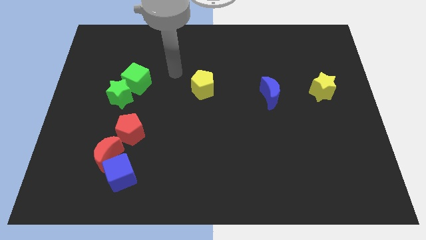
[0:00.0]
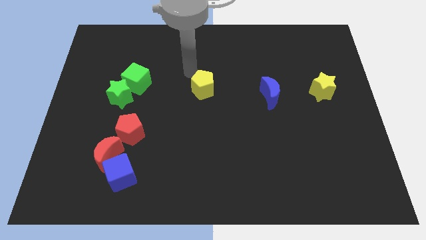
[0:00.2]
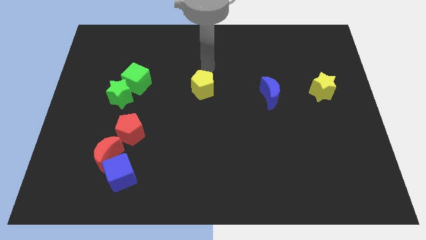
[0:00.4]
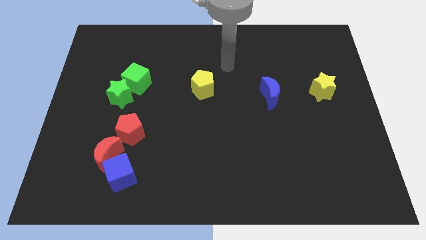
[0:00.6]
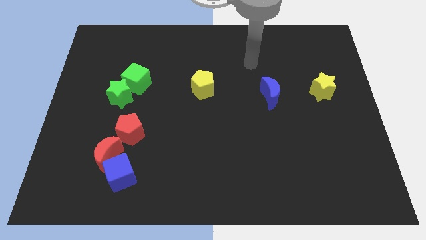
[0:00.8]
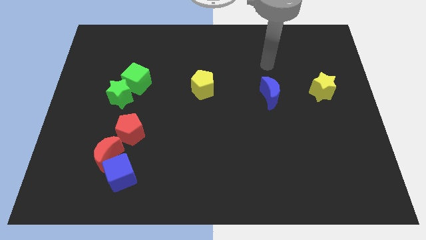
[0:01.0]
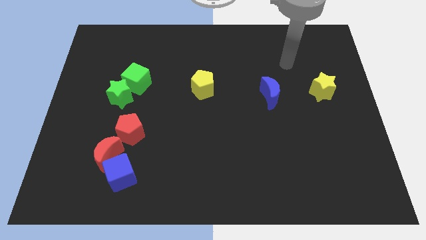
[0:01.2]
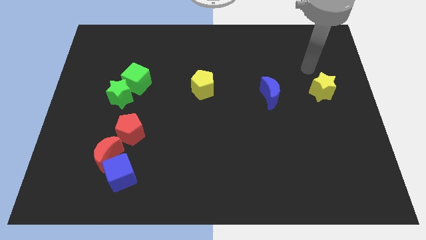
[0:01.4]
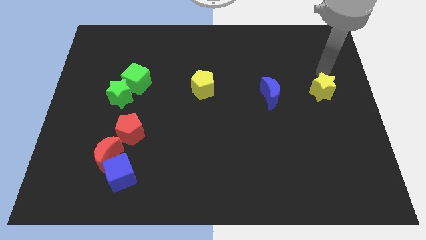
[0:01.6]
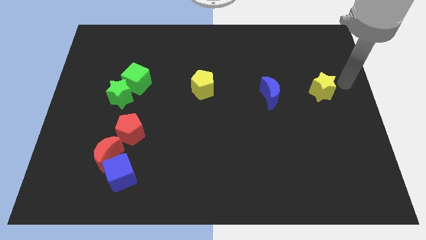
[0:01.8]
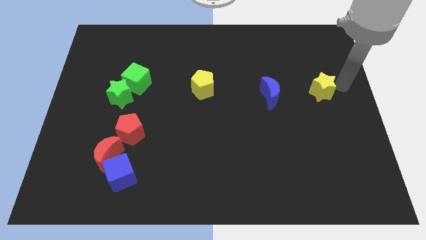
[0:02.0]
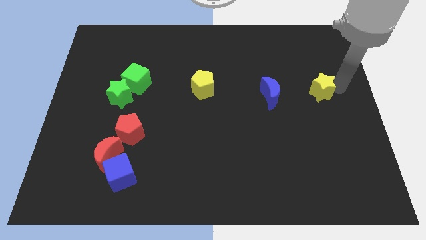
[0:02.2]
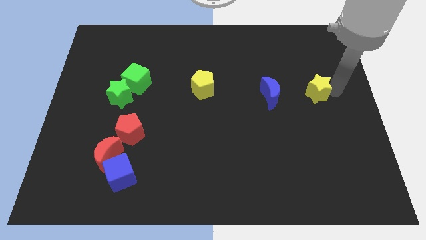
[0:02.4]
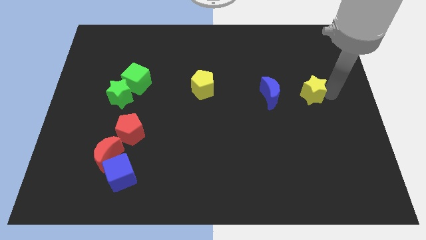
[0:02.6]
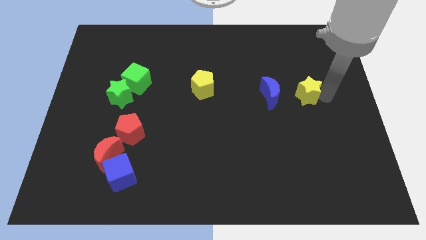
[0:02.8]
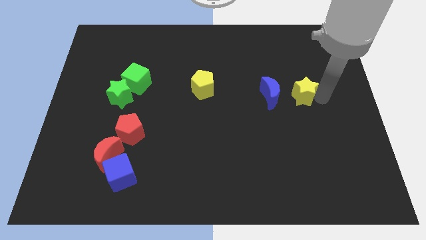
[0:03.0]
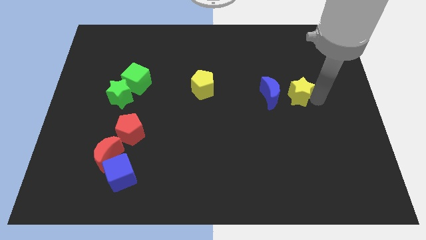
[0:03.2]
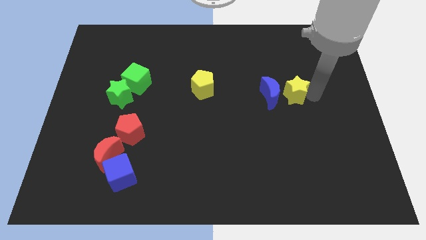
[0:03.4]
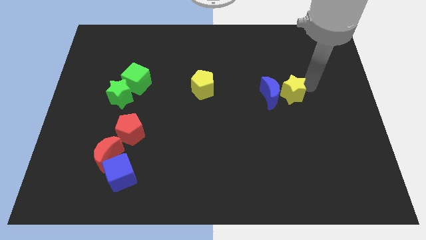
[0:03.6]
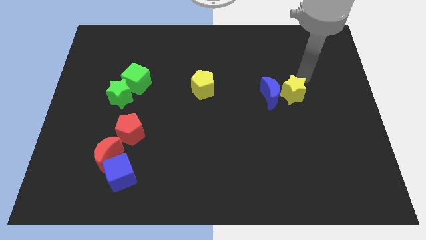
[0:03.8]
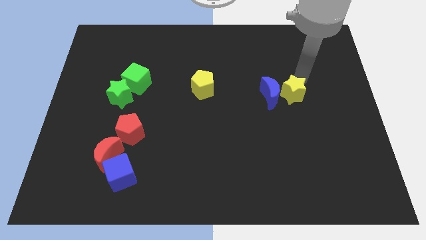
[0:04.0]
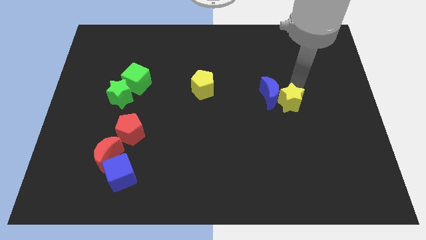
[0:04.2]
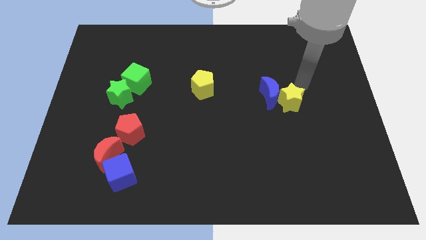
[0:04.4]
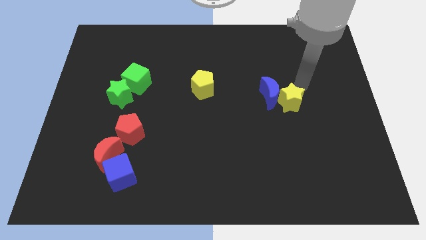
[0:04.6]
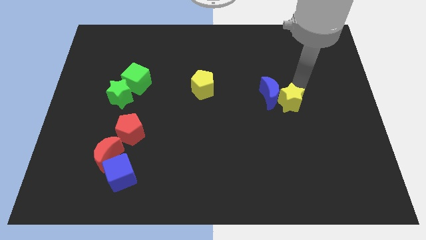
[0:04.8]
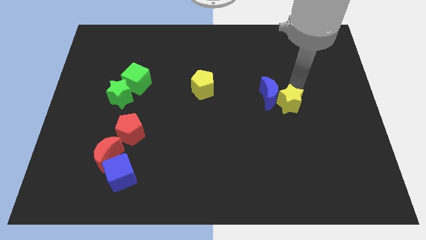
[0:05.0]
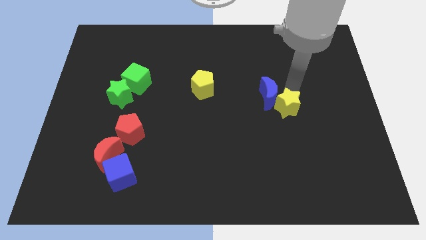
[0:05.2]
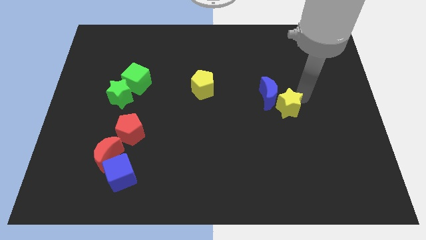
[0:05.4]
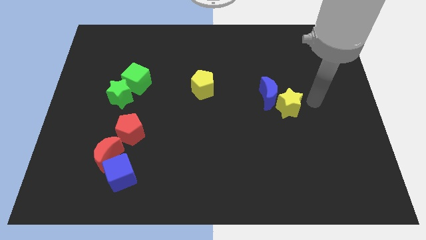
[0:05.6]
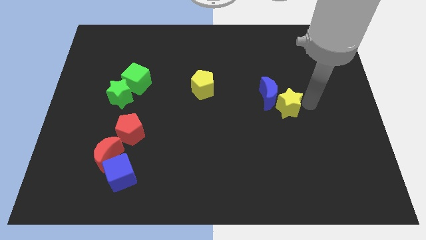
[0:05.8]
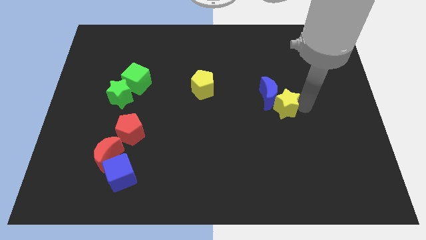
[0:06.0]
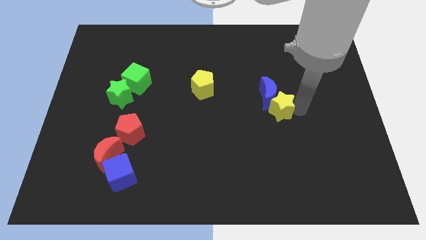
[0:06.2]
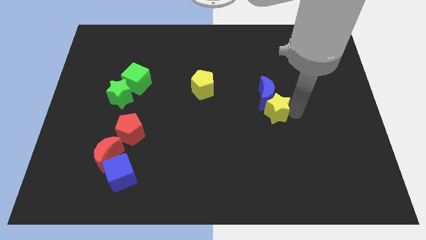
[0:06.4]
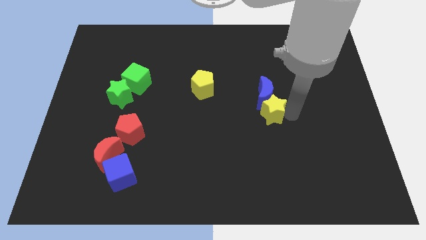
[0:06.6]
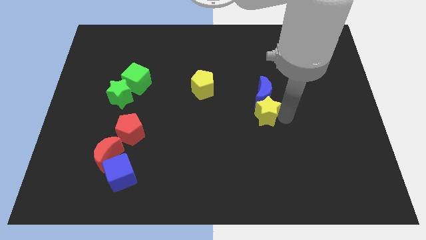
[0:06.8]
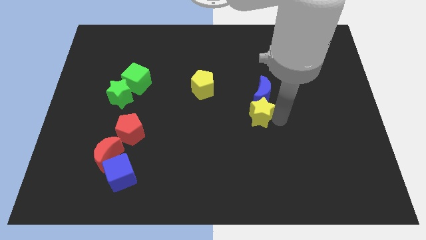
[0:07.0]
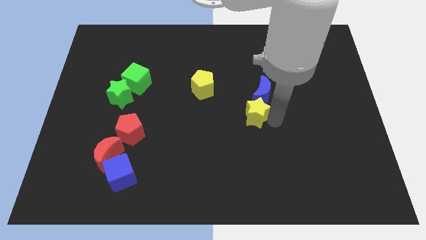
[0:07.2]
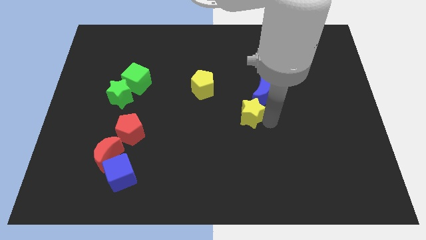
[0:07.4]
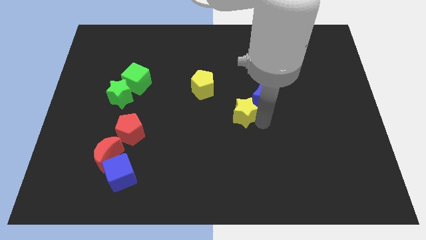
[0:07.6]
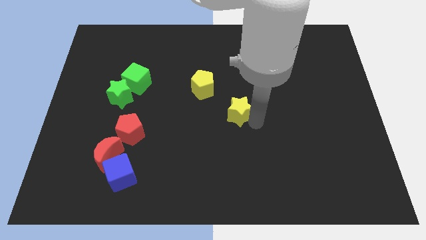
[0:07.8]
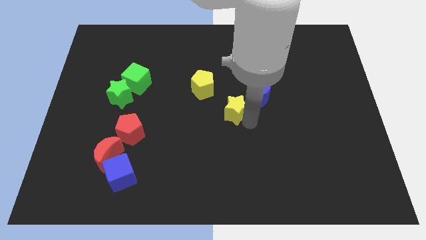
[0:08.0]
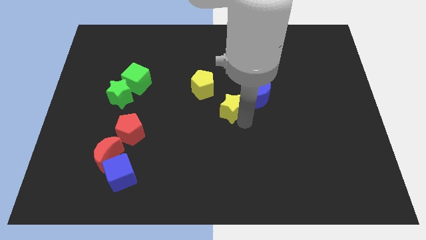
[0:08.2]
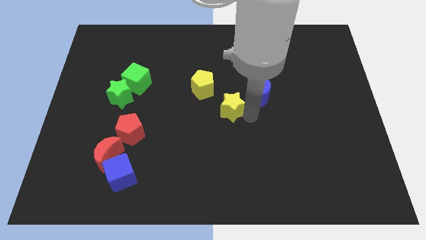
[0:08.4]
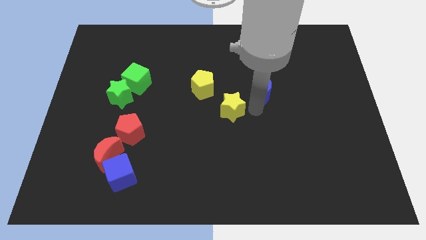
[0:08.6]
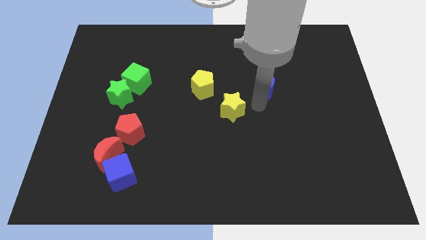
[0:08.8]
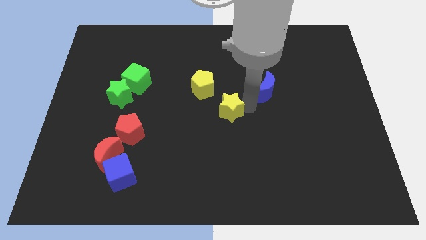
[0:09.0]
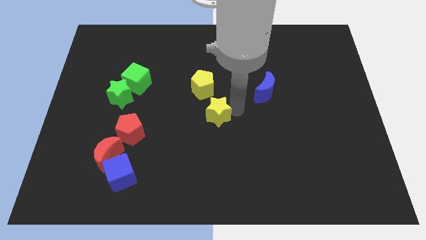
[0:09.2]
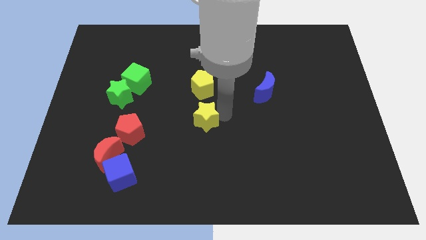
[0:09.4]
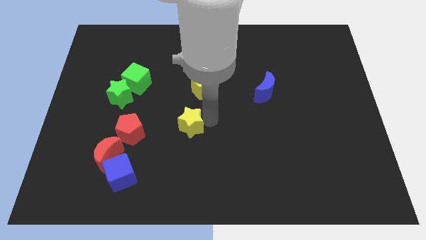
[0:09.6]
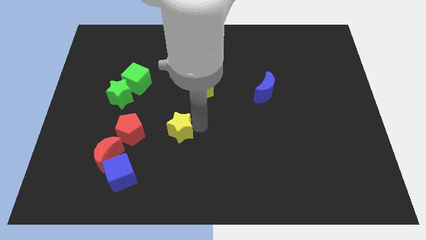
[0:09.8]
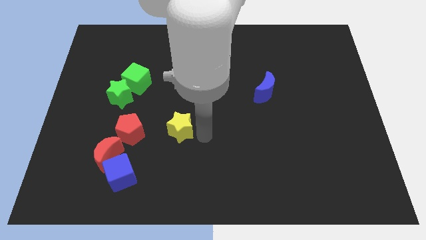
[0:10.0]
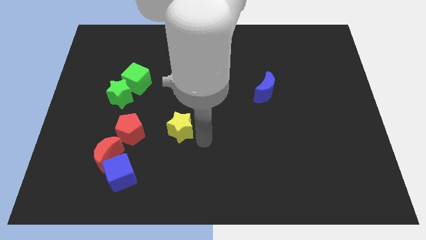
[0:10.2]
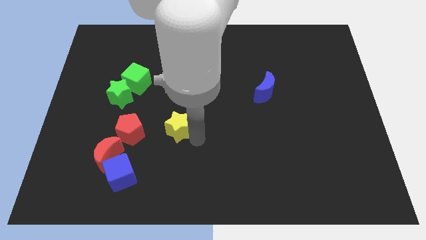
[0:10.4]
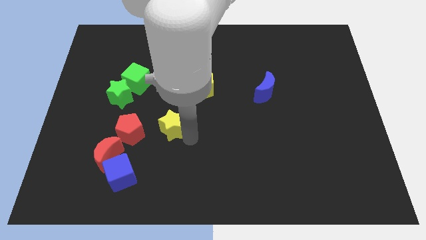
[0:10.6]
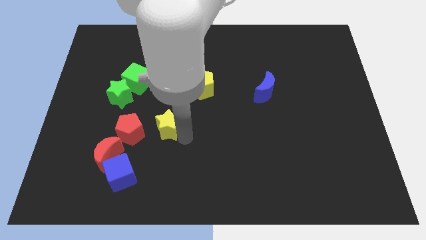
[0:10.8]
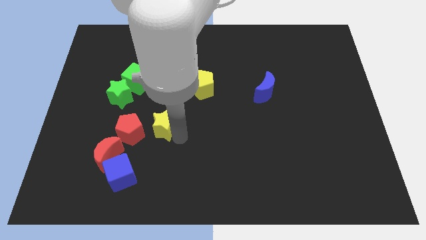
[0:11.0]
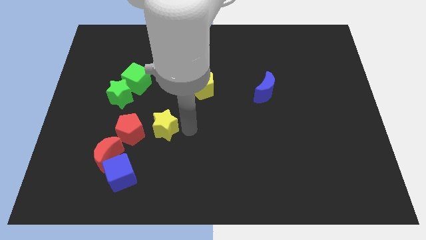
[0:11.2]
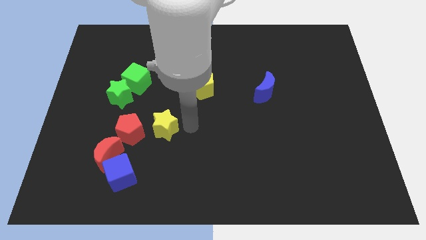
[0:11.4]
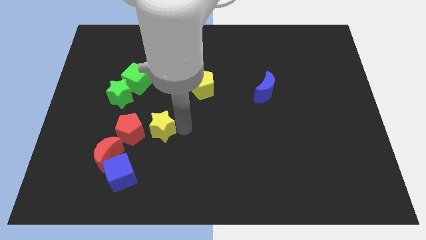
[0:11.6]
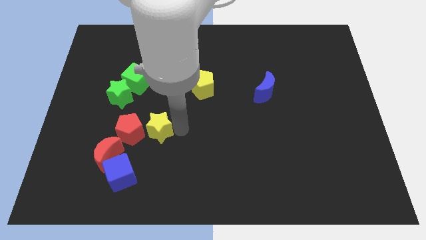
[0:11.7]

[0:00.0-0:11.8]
move the yellow star close to the red pentagon
